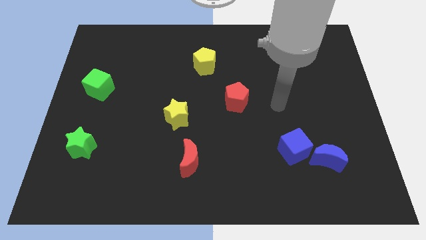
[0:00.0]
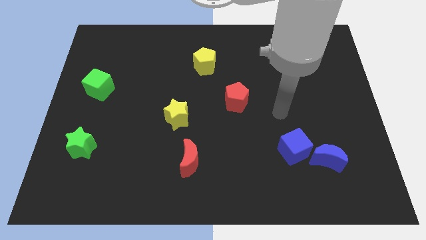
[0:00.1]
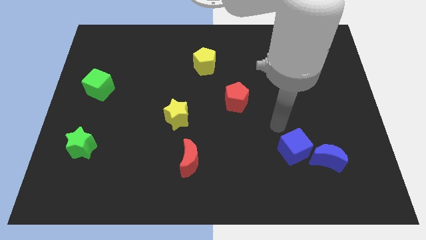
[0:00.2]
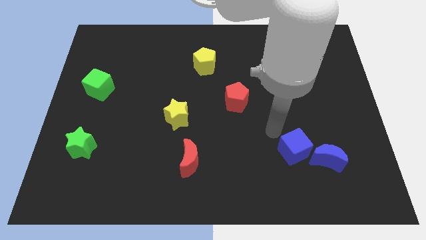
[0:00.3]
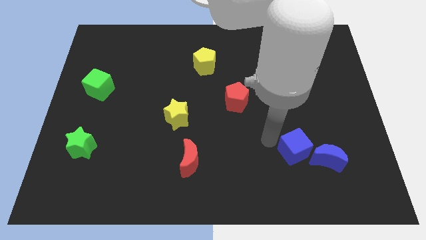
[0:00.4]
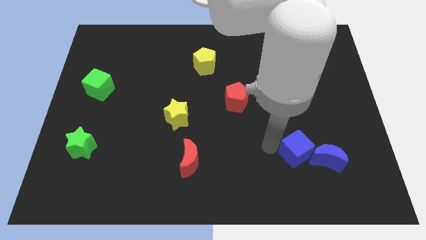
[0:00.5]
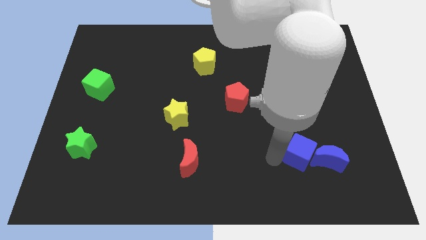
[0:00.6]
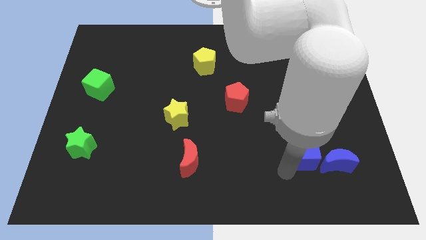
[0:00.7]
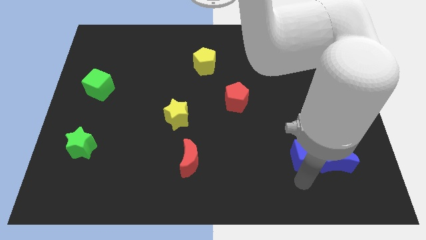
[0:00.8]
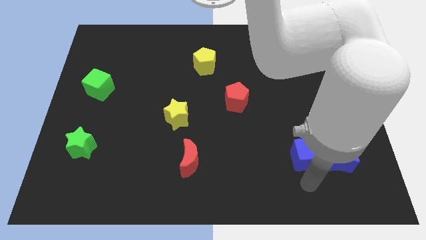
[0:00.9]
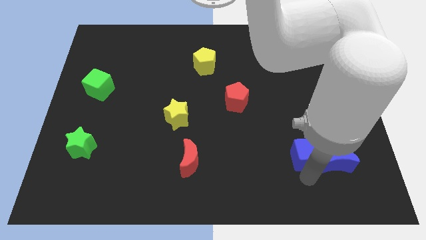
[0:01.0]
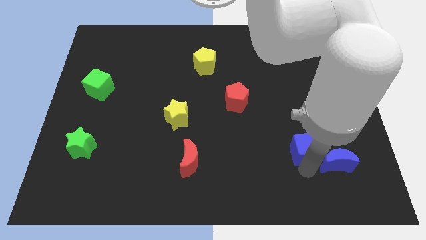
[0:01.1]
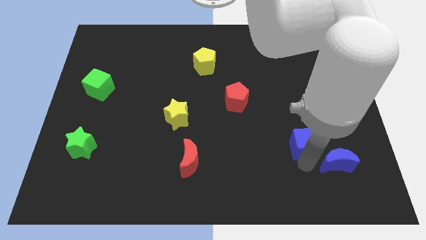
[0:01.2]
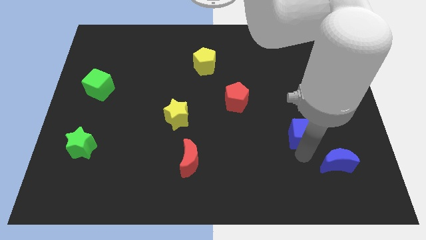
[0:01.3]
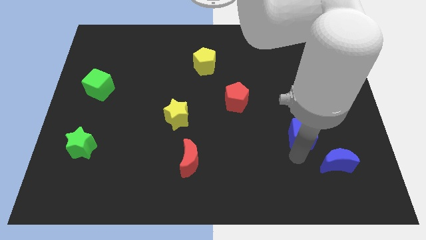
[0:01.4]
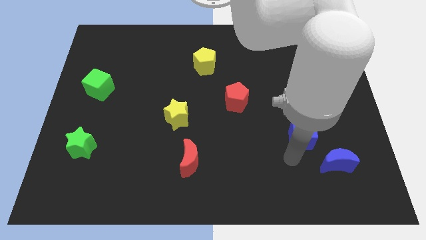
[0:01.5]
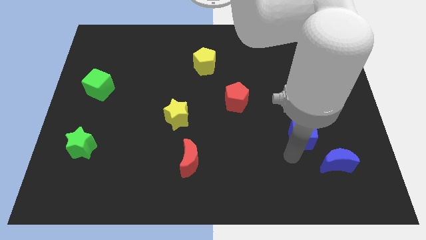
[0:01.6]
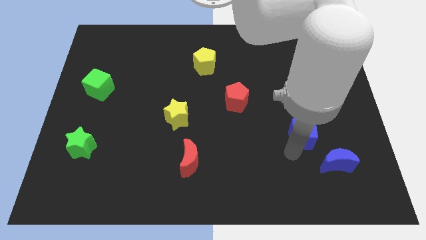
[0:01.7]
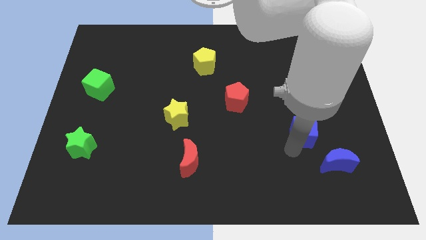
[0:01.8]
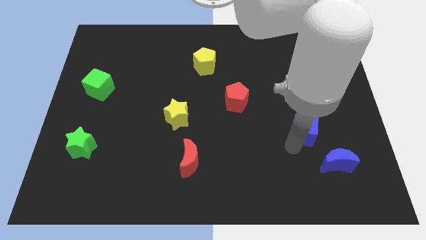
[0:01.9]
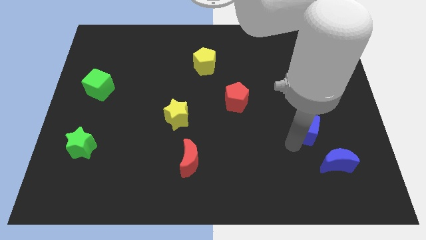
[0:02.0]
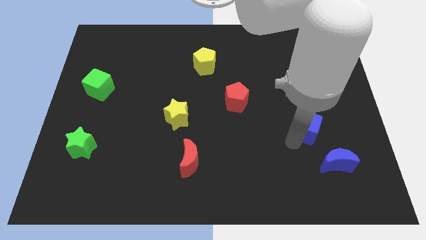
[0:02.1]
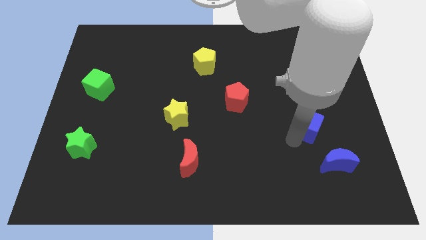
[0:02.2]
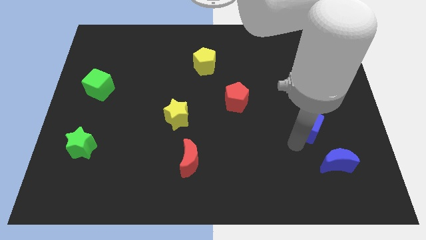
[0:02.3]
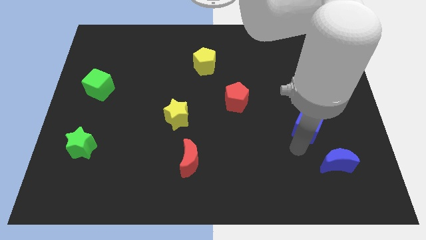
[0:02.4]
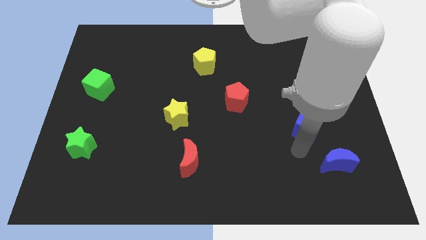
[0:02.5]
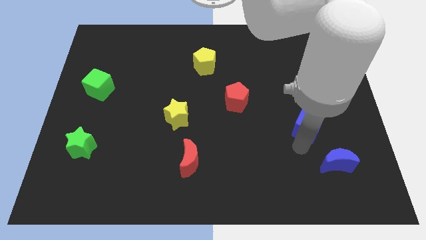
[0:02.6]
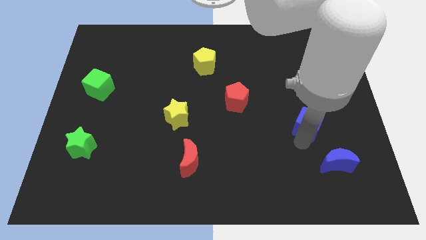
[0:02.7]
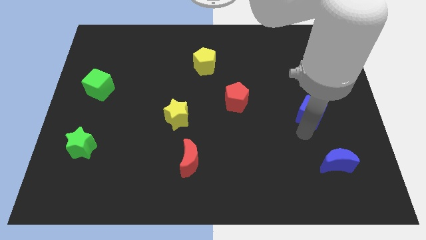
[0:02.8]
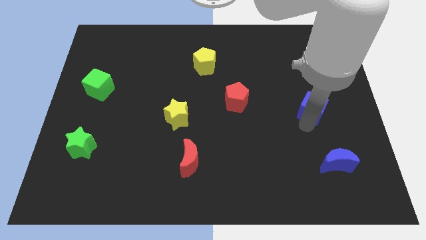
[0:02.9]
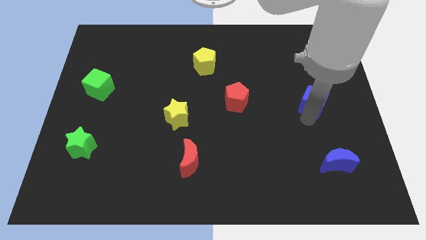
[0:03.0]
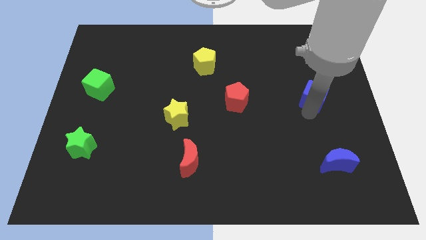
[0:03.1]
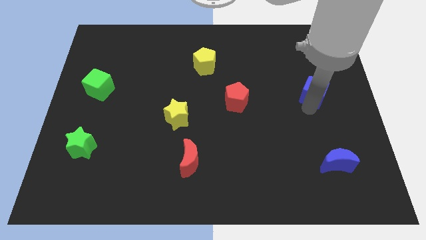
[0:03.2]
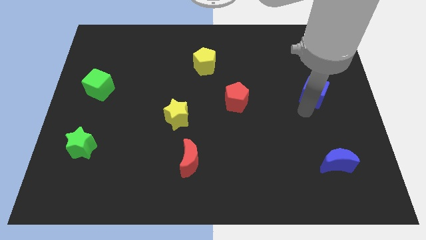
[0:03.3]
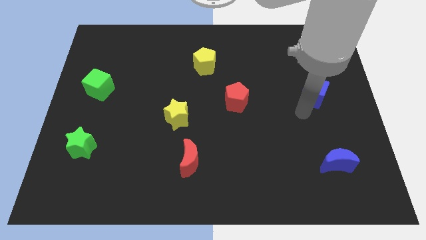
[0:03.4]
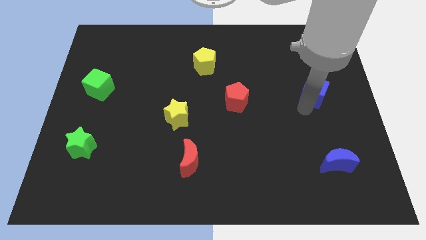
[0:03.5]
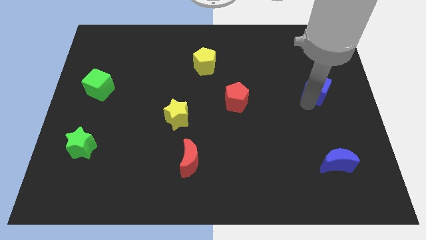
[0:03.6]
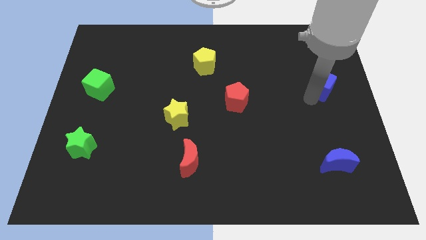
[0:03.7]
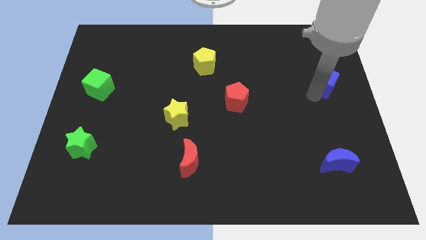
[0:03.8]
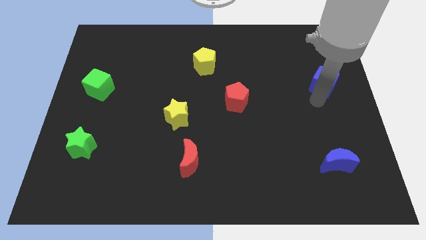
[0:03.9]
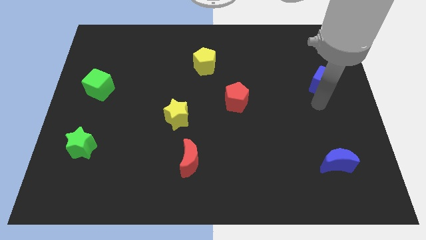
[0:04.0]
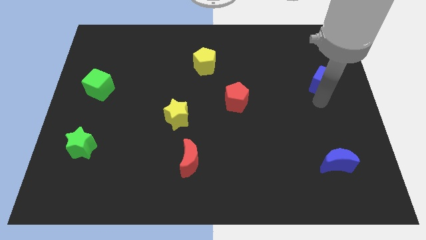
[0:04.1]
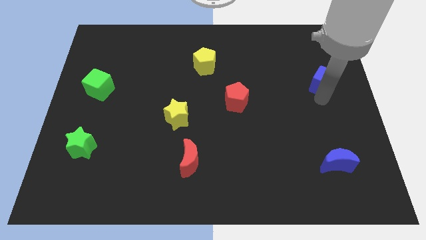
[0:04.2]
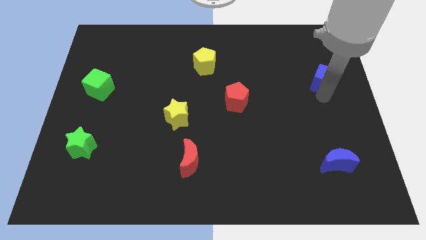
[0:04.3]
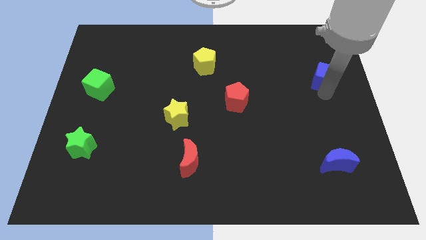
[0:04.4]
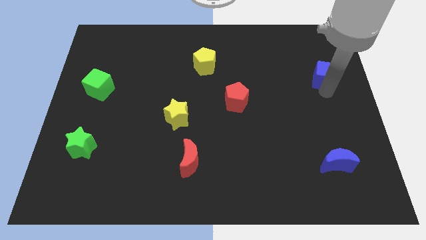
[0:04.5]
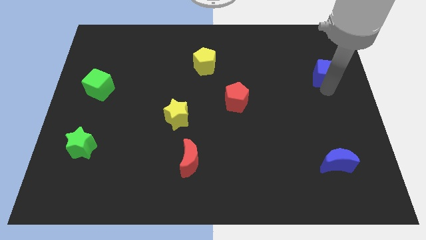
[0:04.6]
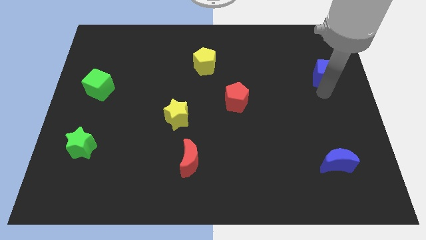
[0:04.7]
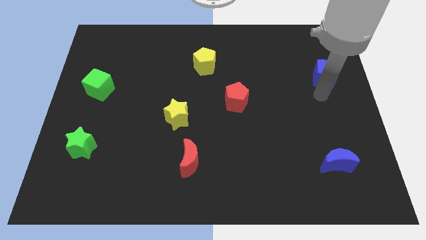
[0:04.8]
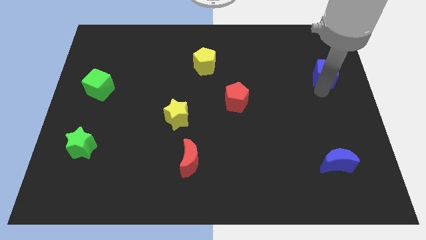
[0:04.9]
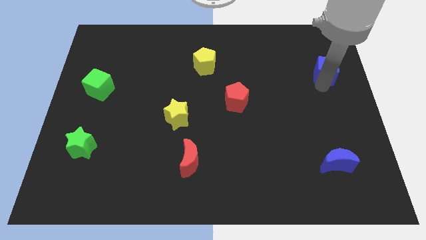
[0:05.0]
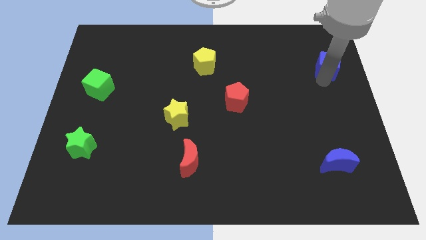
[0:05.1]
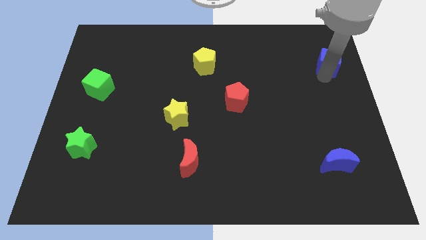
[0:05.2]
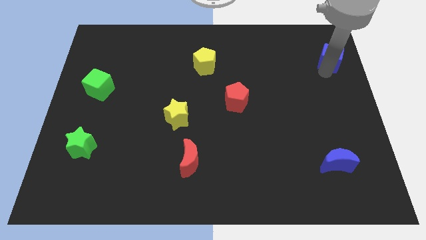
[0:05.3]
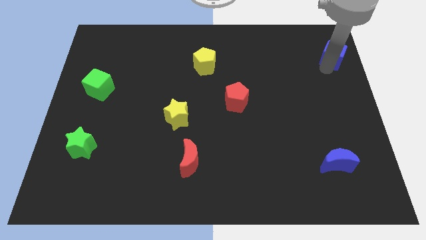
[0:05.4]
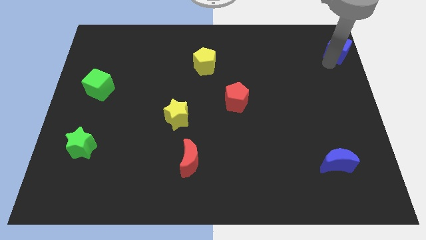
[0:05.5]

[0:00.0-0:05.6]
push the blue cube to the top right corner
